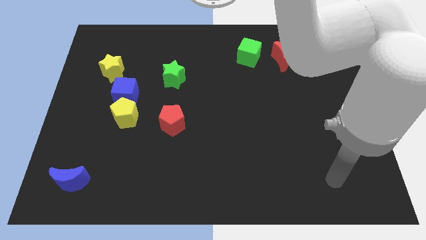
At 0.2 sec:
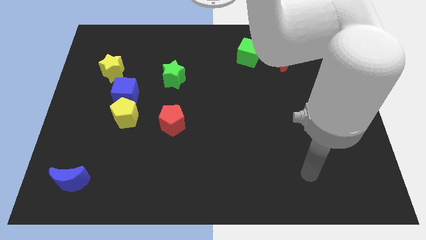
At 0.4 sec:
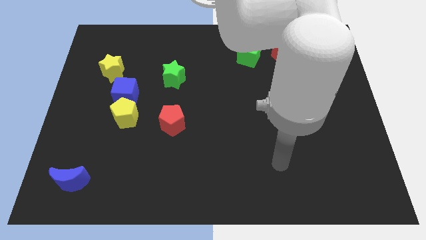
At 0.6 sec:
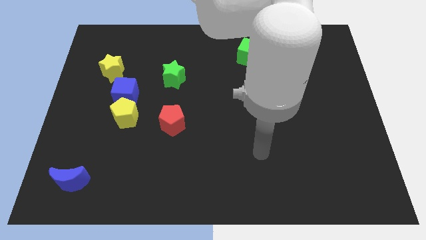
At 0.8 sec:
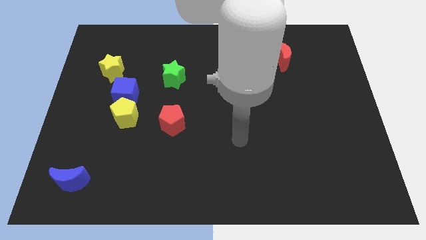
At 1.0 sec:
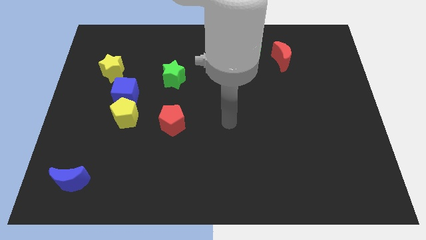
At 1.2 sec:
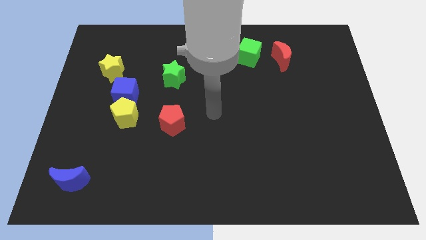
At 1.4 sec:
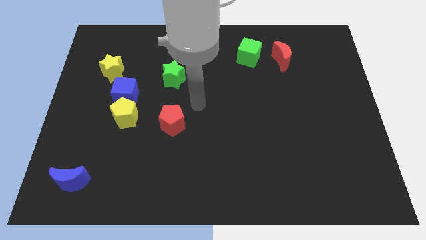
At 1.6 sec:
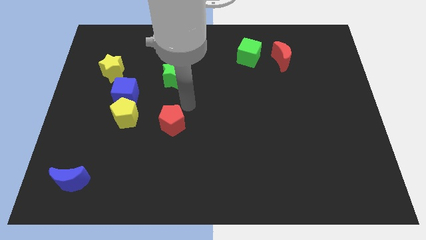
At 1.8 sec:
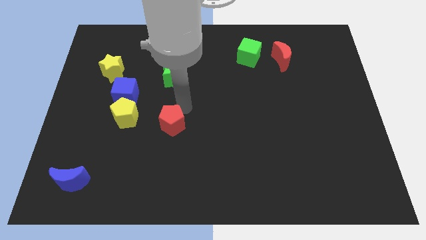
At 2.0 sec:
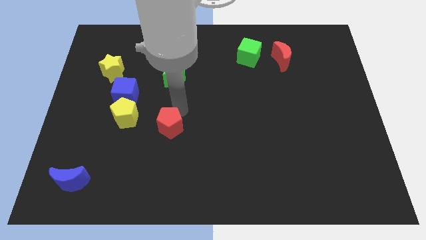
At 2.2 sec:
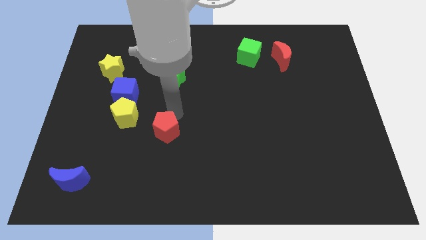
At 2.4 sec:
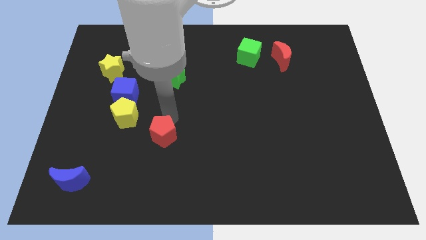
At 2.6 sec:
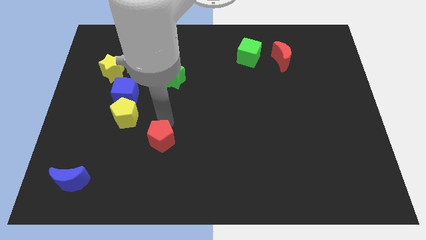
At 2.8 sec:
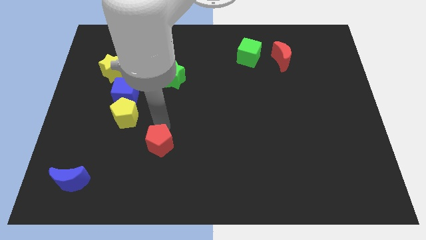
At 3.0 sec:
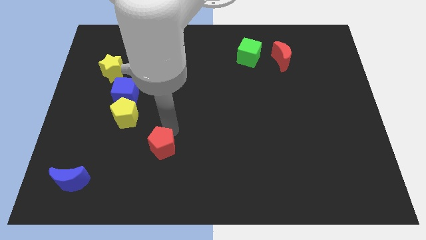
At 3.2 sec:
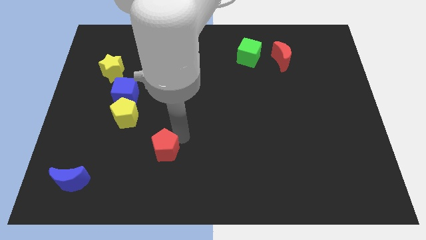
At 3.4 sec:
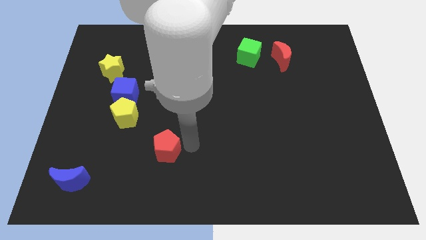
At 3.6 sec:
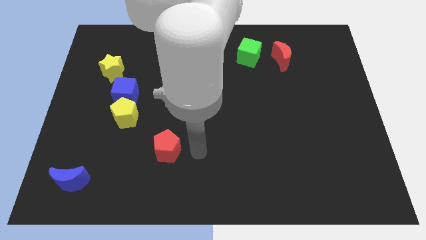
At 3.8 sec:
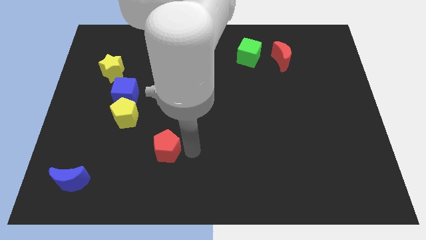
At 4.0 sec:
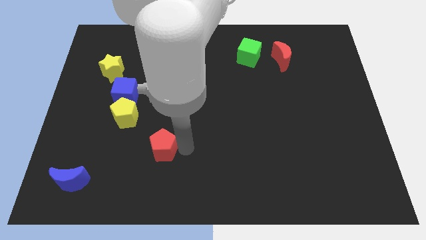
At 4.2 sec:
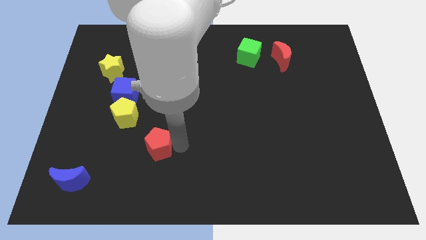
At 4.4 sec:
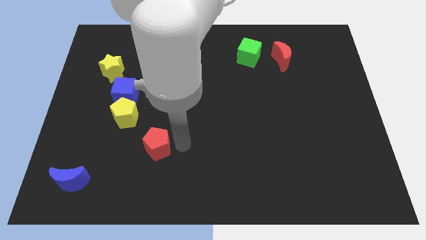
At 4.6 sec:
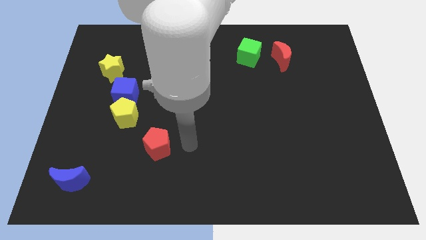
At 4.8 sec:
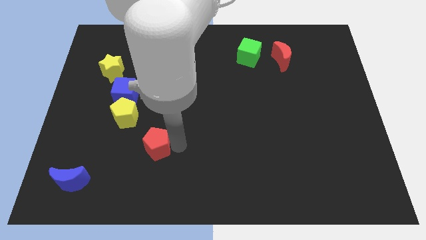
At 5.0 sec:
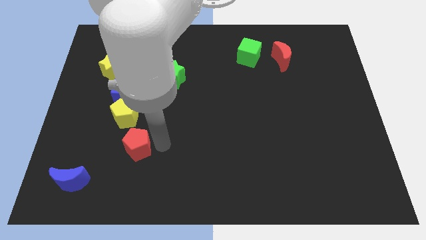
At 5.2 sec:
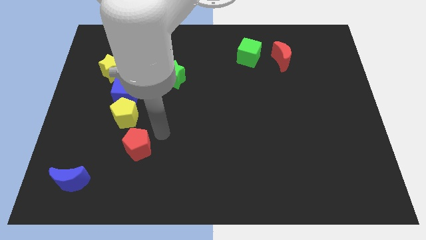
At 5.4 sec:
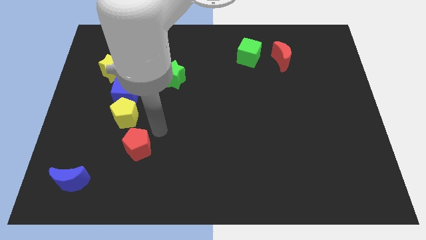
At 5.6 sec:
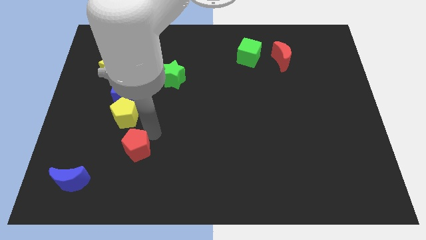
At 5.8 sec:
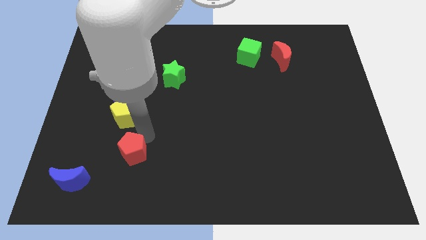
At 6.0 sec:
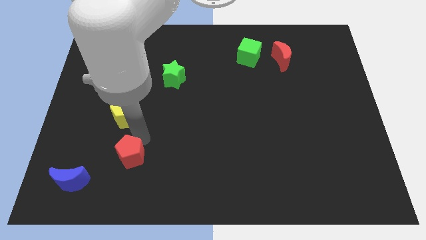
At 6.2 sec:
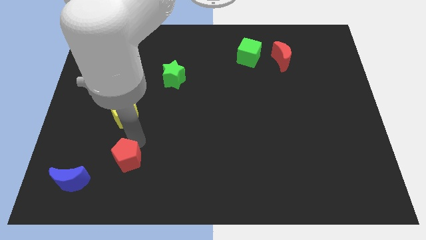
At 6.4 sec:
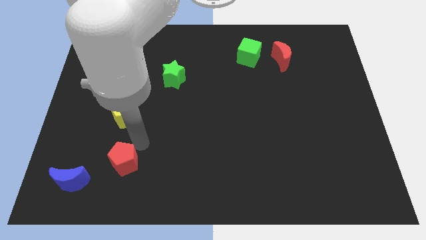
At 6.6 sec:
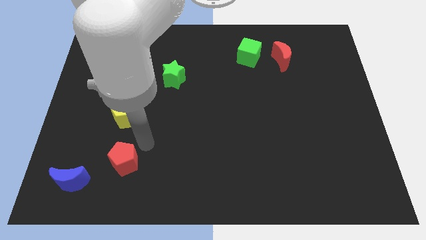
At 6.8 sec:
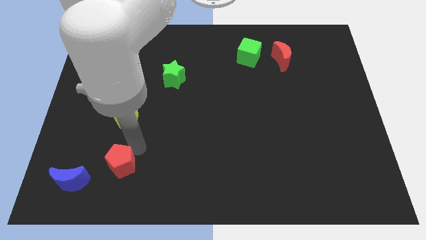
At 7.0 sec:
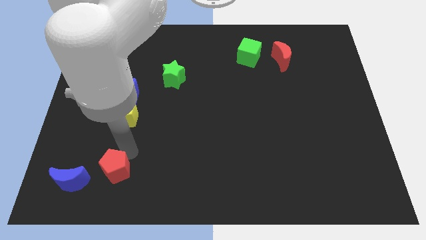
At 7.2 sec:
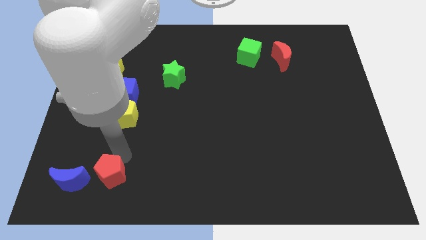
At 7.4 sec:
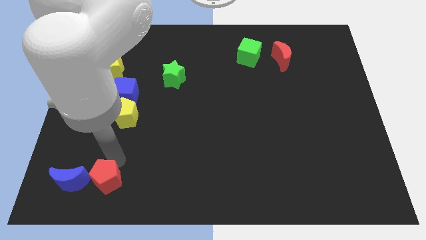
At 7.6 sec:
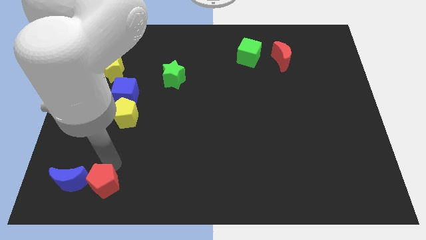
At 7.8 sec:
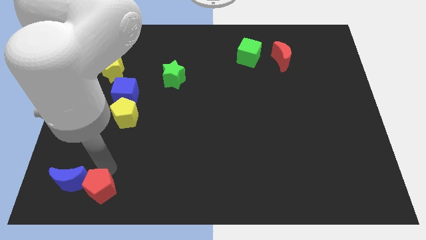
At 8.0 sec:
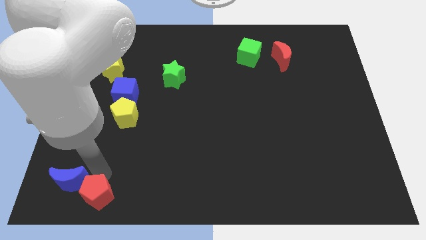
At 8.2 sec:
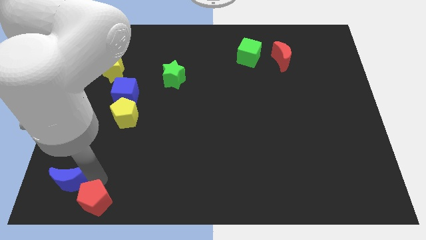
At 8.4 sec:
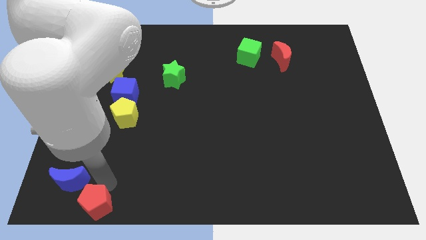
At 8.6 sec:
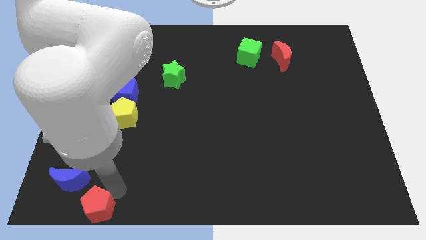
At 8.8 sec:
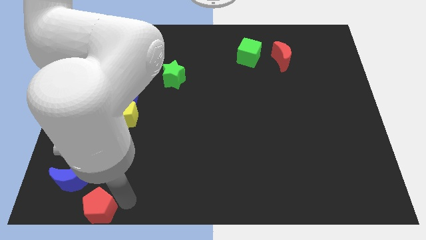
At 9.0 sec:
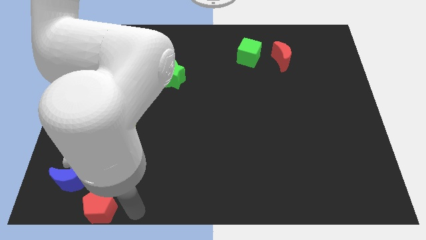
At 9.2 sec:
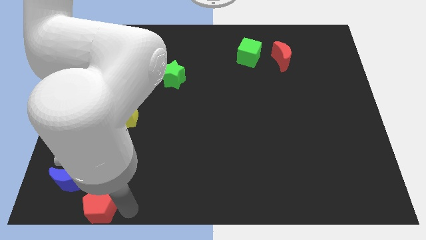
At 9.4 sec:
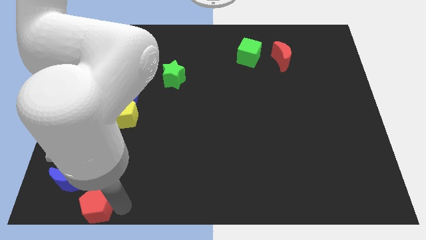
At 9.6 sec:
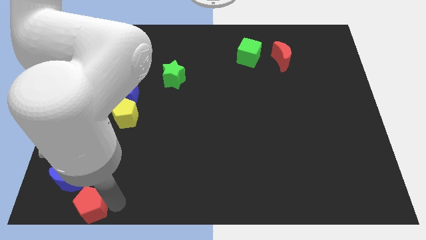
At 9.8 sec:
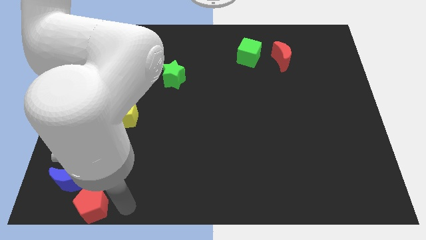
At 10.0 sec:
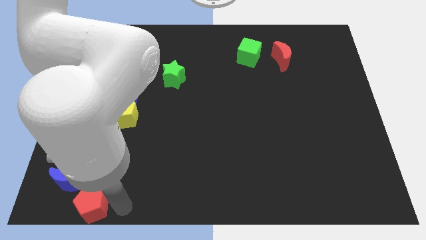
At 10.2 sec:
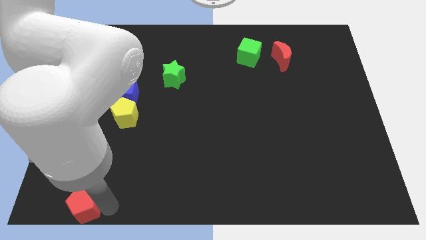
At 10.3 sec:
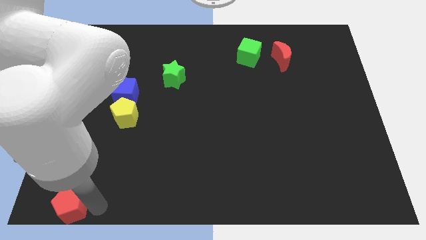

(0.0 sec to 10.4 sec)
push the red pentagon to the bottom left

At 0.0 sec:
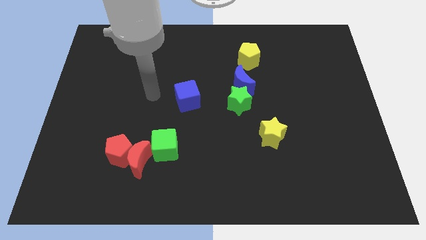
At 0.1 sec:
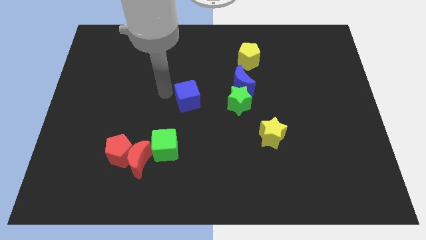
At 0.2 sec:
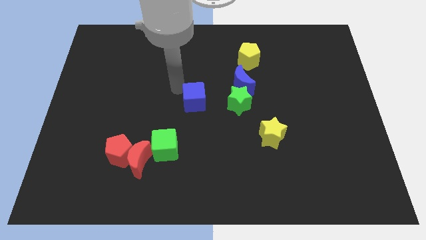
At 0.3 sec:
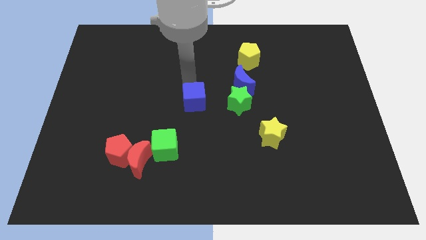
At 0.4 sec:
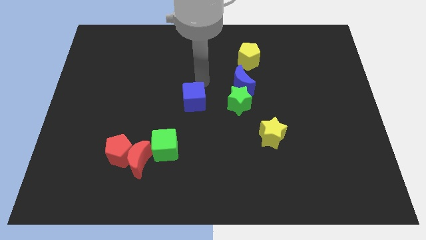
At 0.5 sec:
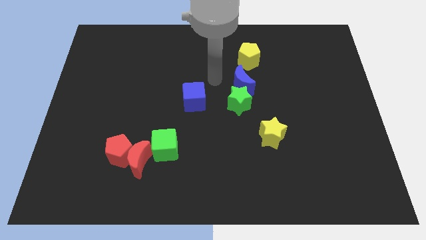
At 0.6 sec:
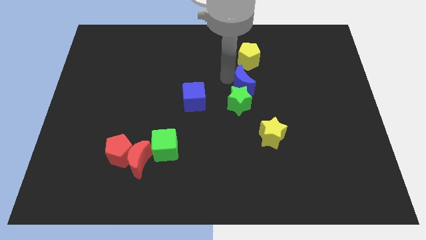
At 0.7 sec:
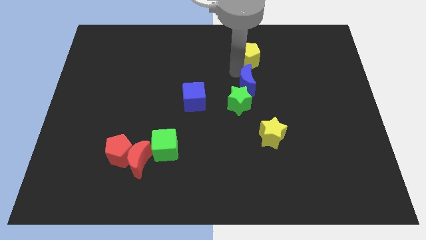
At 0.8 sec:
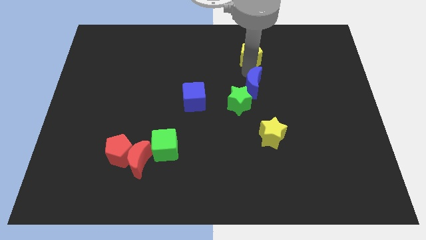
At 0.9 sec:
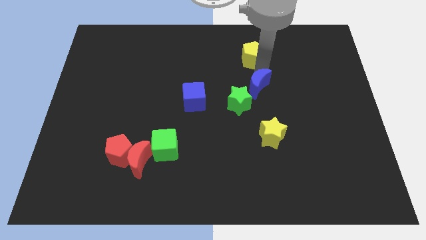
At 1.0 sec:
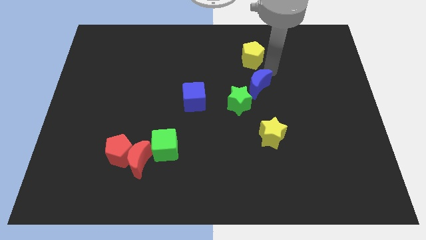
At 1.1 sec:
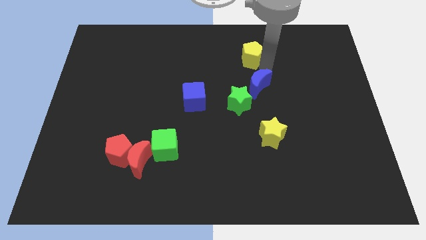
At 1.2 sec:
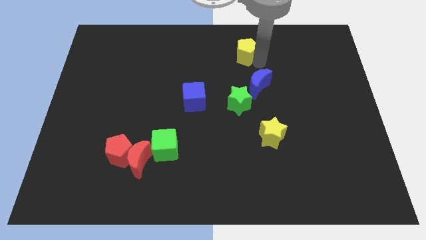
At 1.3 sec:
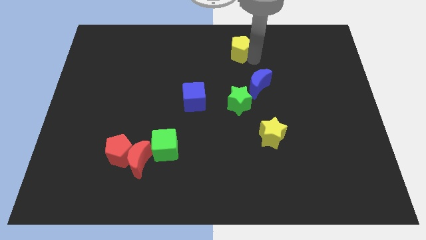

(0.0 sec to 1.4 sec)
put the yellow pentagon to the top side

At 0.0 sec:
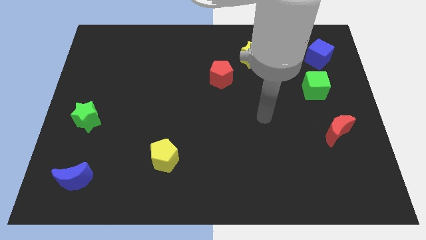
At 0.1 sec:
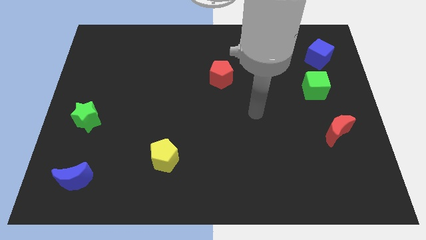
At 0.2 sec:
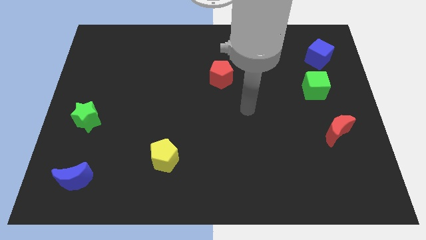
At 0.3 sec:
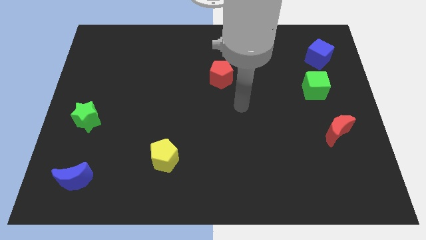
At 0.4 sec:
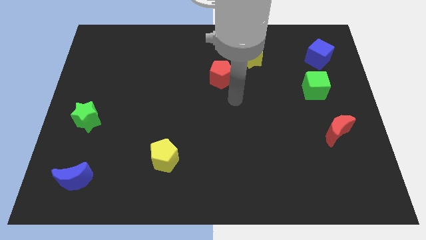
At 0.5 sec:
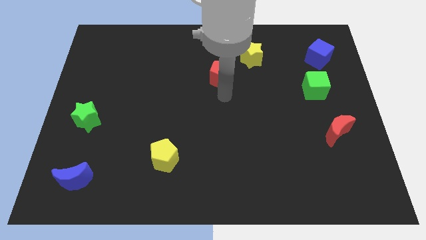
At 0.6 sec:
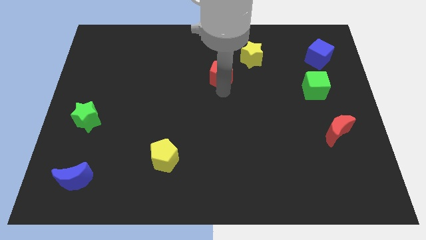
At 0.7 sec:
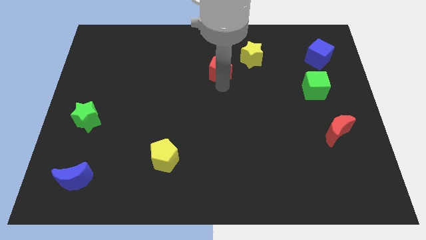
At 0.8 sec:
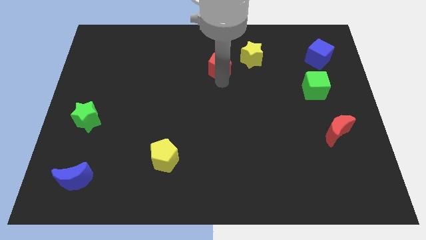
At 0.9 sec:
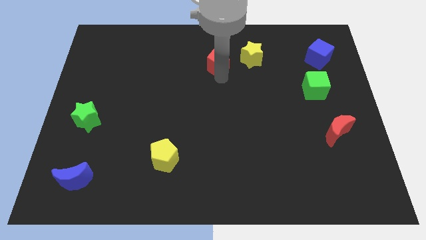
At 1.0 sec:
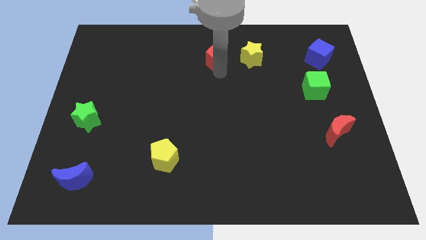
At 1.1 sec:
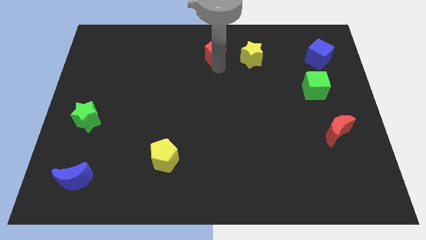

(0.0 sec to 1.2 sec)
push the red pentagon to the top
